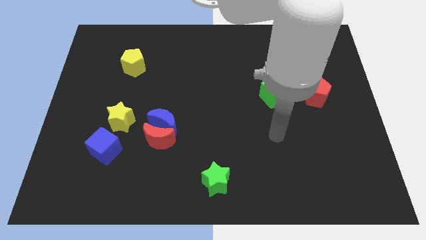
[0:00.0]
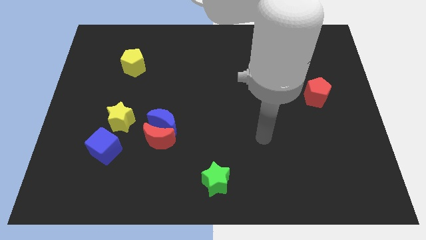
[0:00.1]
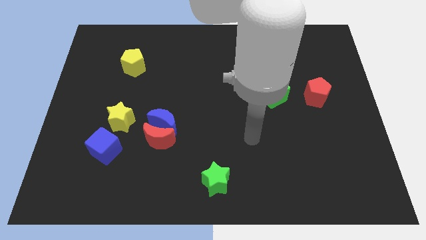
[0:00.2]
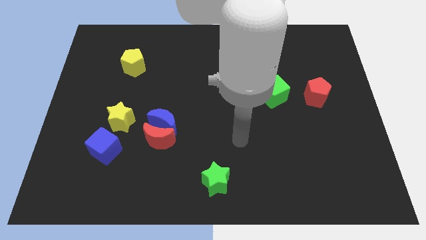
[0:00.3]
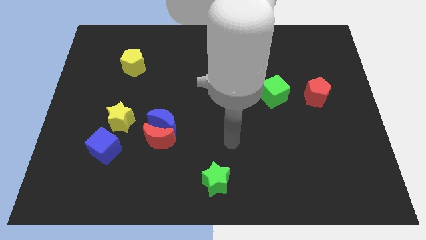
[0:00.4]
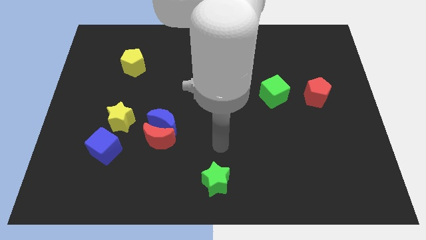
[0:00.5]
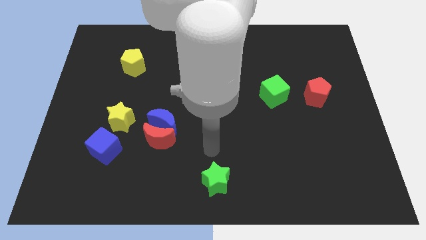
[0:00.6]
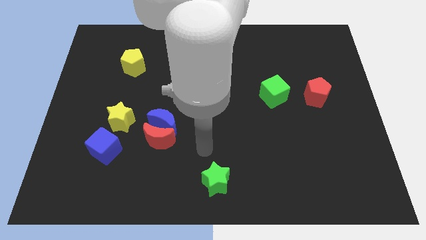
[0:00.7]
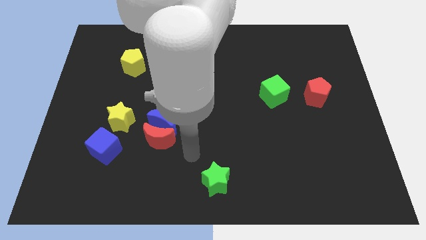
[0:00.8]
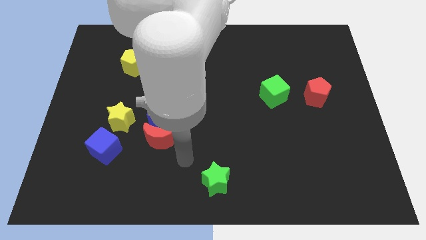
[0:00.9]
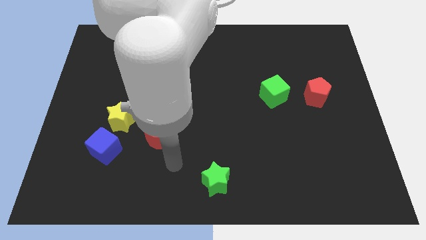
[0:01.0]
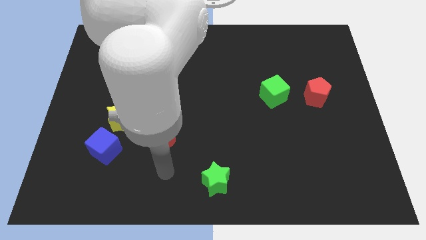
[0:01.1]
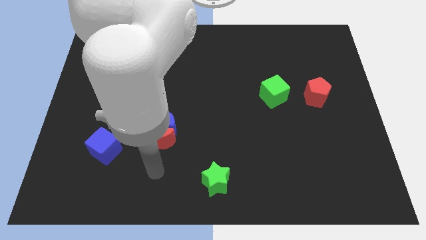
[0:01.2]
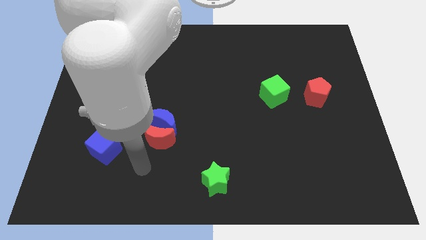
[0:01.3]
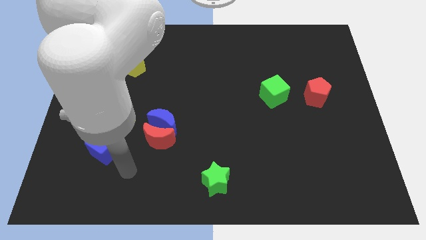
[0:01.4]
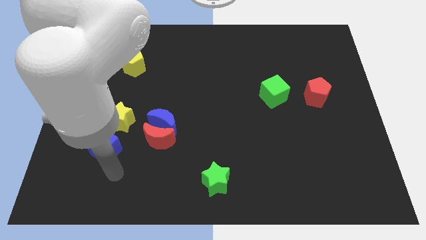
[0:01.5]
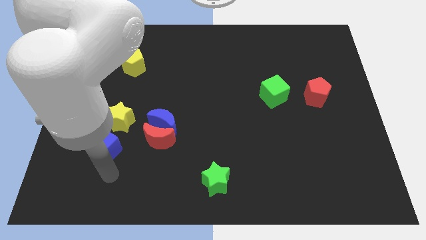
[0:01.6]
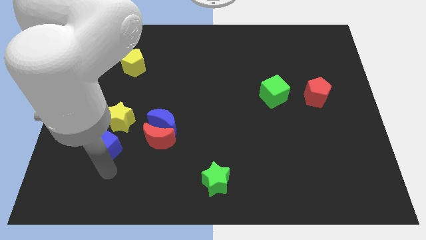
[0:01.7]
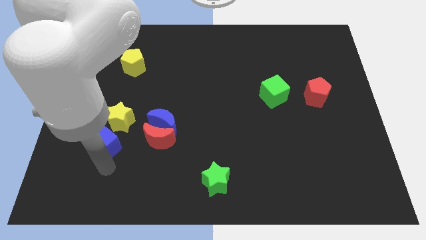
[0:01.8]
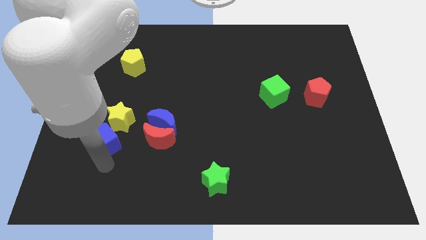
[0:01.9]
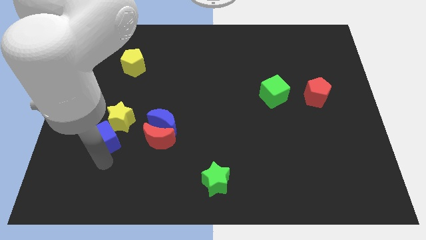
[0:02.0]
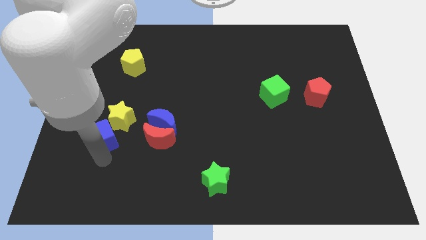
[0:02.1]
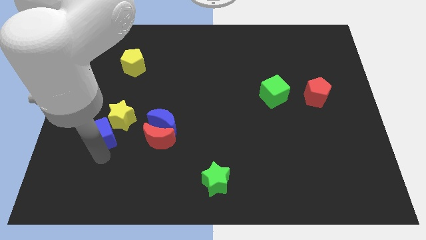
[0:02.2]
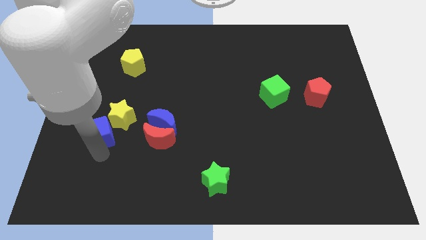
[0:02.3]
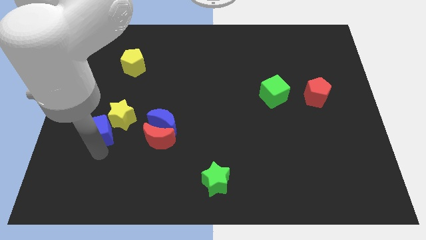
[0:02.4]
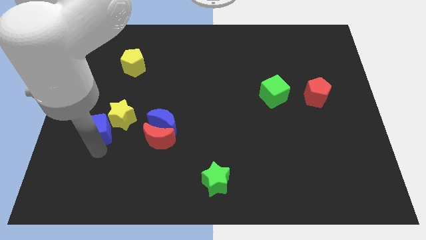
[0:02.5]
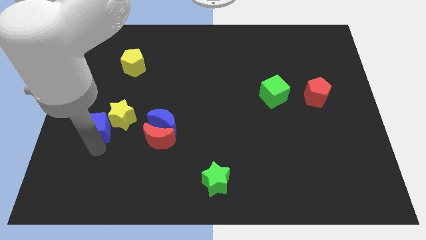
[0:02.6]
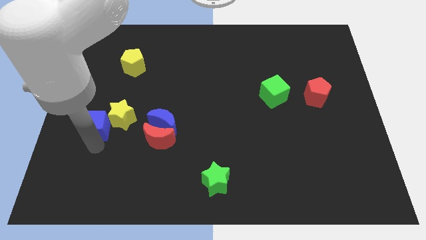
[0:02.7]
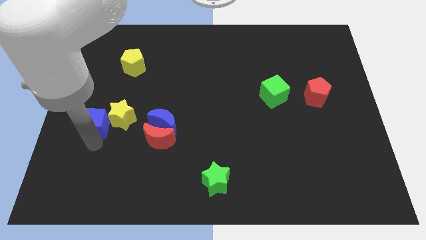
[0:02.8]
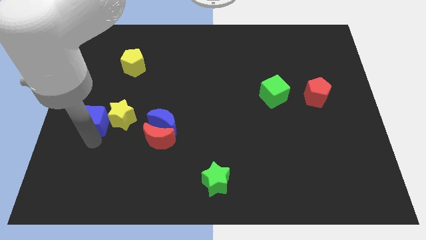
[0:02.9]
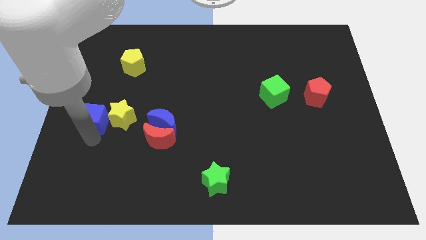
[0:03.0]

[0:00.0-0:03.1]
slide the blue cube a bit upwards

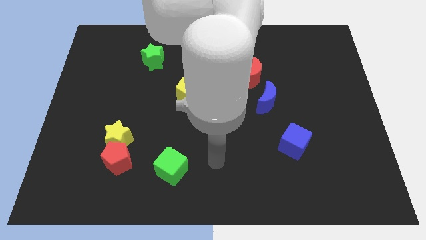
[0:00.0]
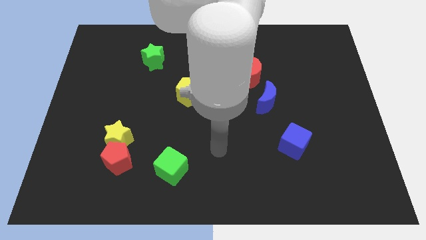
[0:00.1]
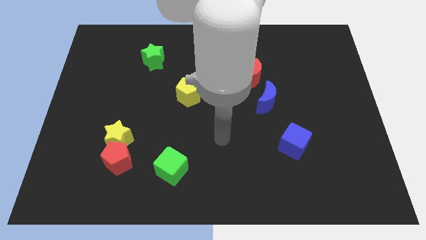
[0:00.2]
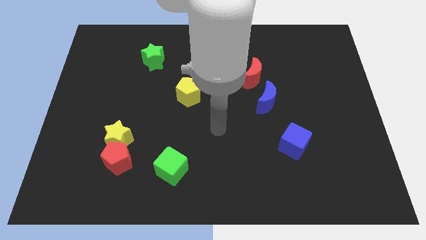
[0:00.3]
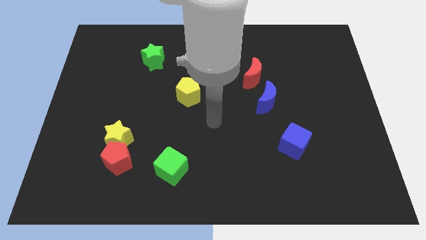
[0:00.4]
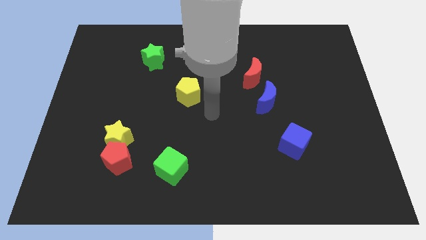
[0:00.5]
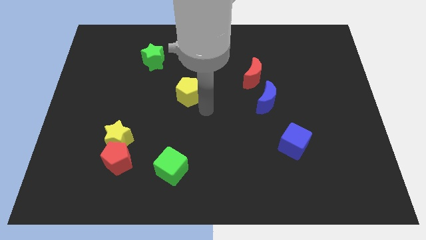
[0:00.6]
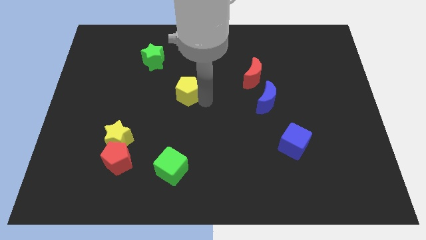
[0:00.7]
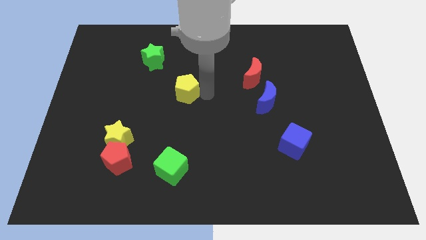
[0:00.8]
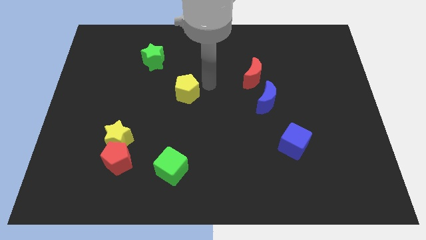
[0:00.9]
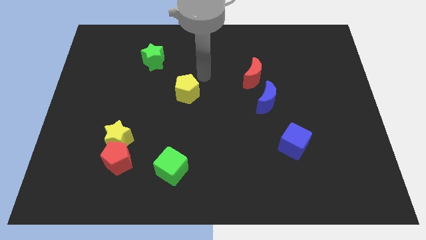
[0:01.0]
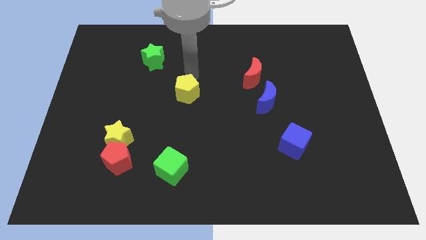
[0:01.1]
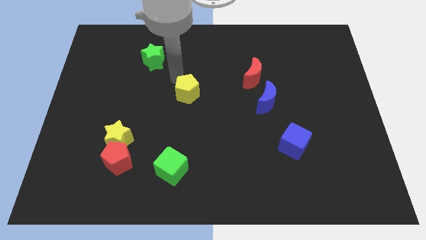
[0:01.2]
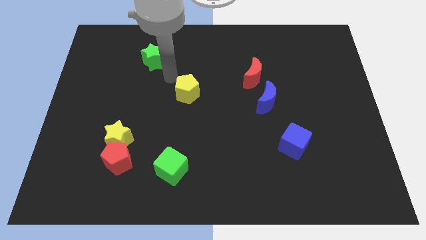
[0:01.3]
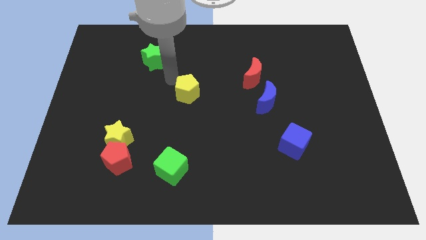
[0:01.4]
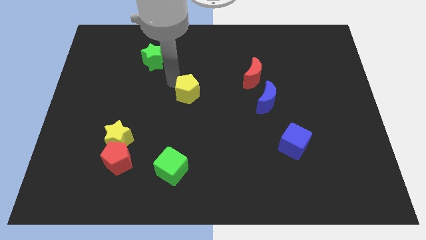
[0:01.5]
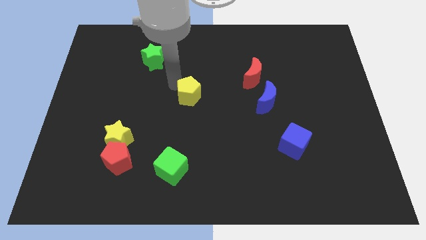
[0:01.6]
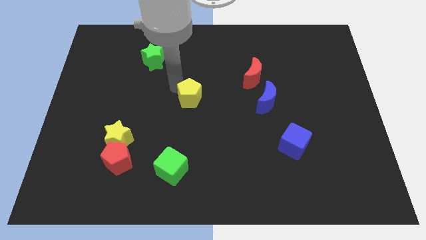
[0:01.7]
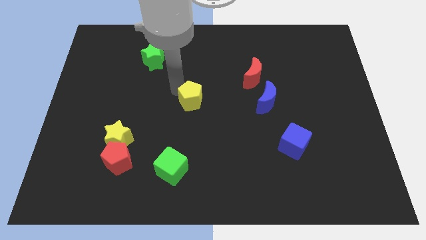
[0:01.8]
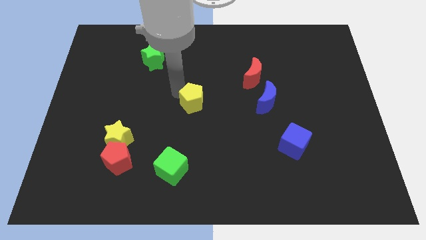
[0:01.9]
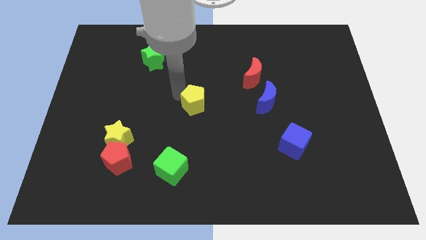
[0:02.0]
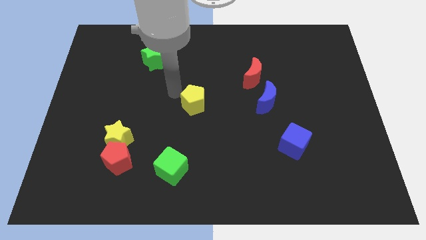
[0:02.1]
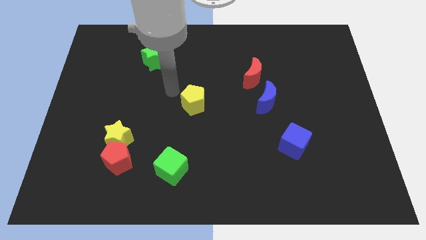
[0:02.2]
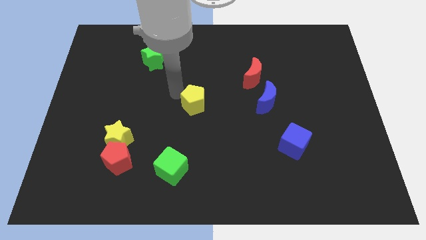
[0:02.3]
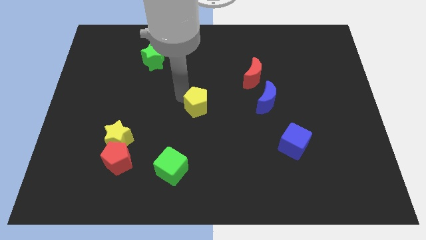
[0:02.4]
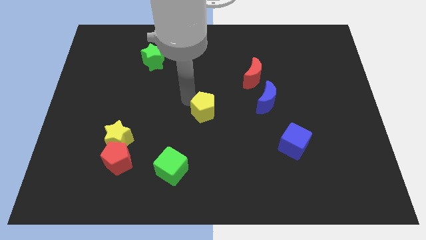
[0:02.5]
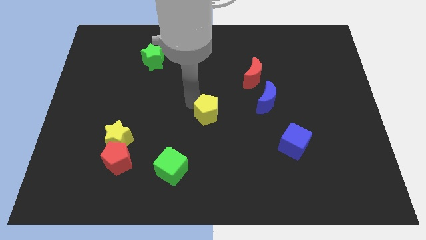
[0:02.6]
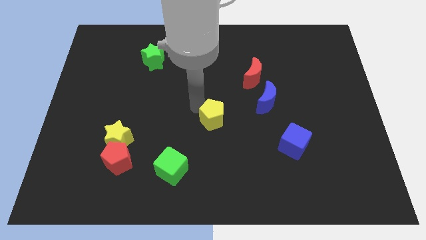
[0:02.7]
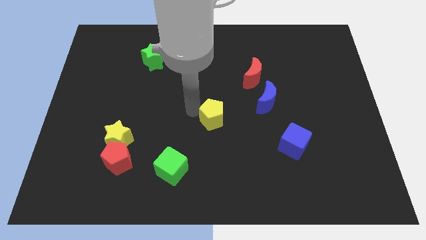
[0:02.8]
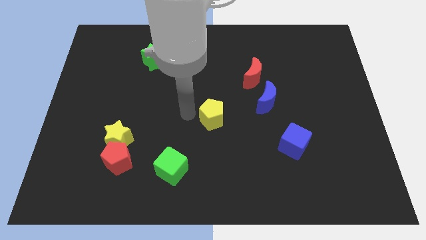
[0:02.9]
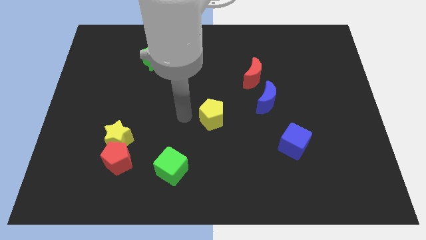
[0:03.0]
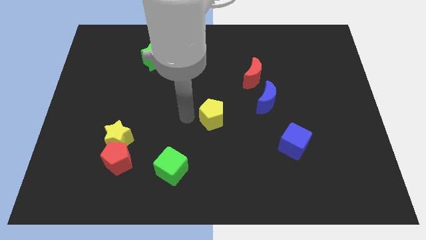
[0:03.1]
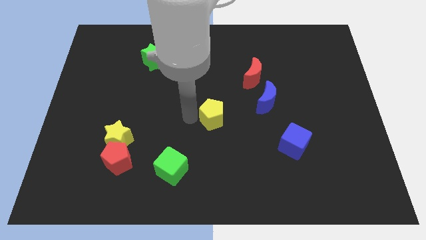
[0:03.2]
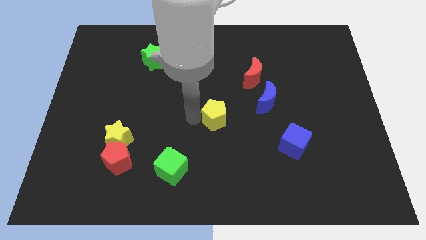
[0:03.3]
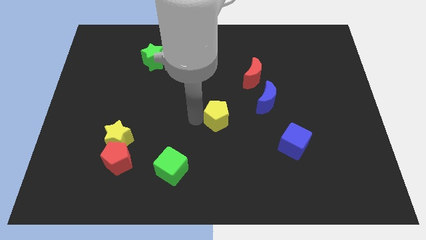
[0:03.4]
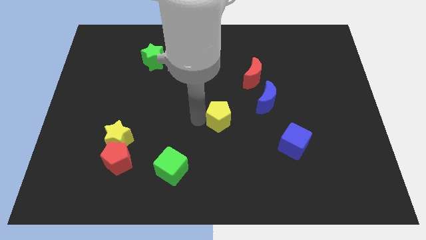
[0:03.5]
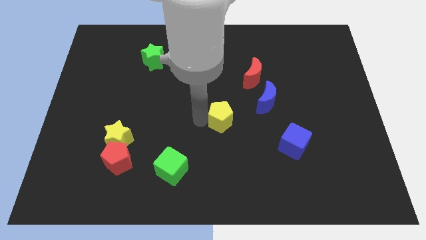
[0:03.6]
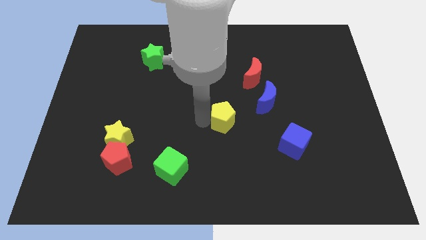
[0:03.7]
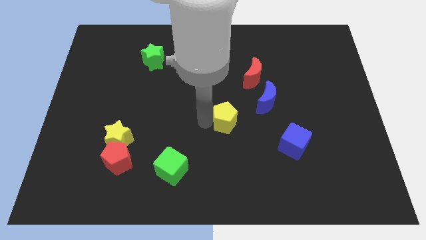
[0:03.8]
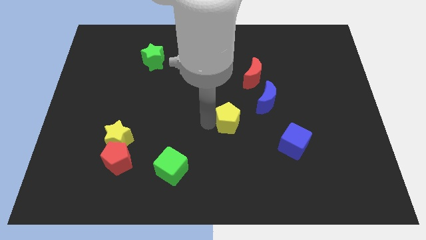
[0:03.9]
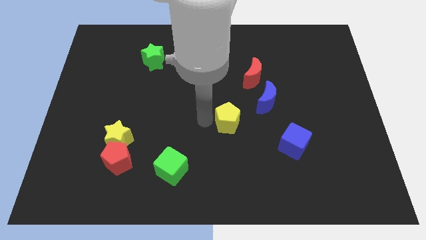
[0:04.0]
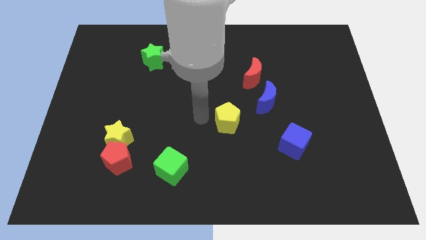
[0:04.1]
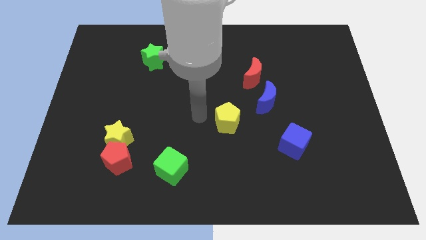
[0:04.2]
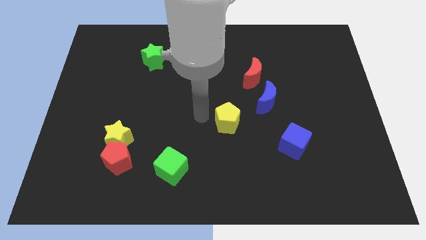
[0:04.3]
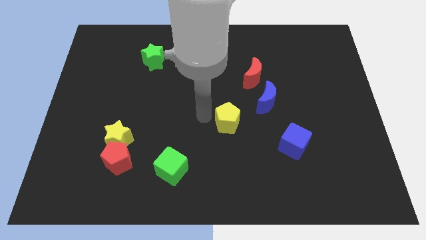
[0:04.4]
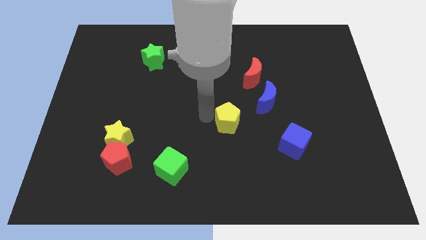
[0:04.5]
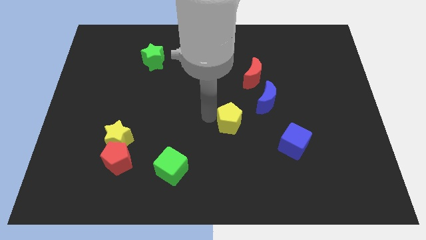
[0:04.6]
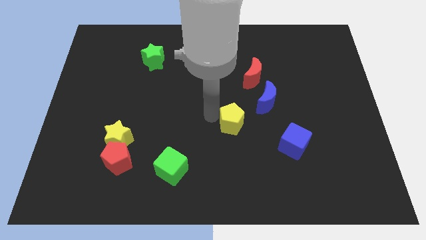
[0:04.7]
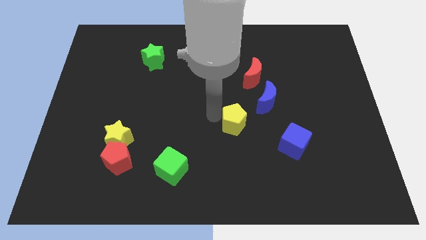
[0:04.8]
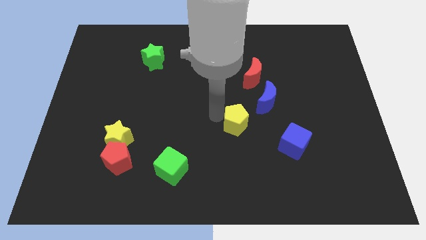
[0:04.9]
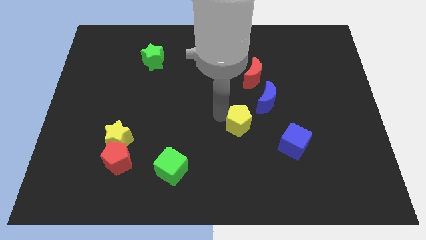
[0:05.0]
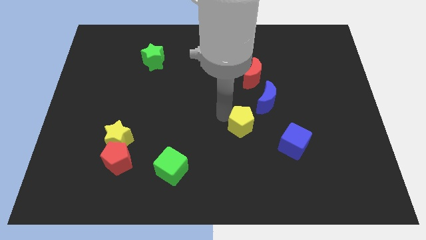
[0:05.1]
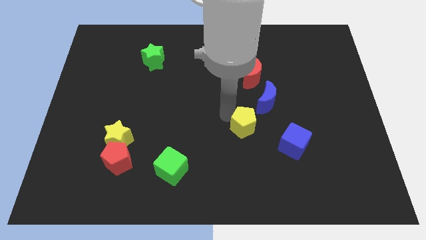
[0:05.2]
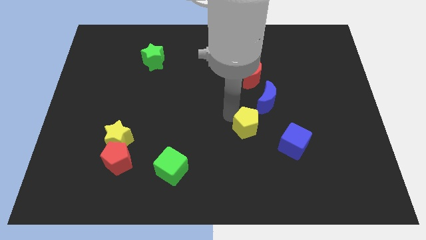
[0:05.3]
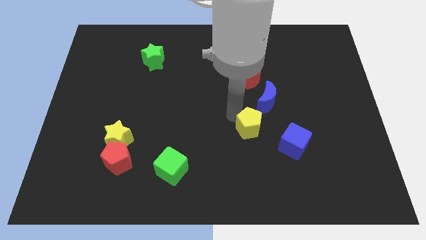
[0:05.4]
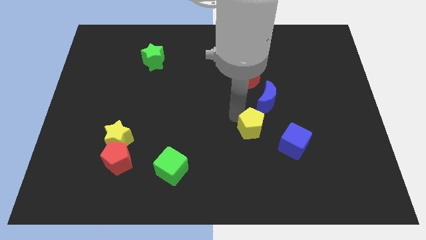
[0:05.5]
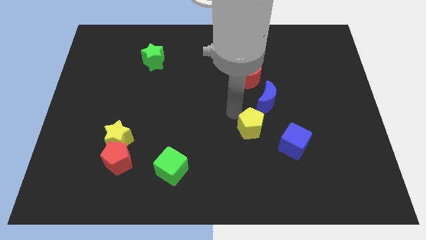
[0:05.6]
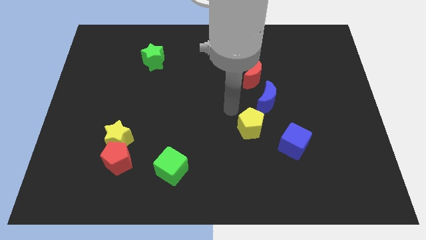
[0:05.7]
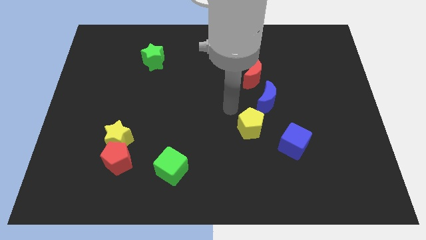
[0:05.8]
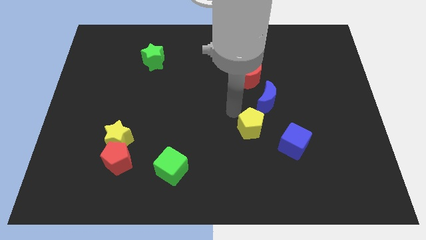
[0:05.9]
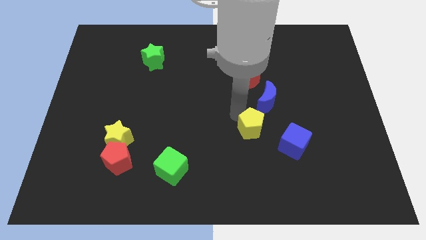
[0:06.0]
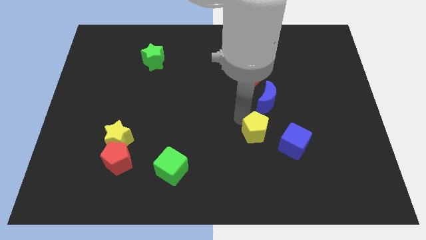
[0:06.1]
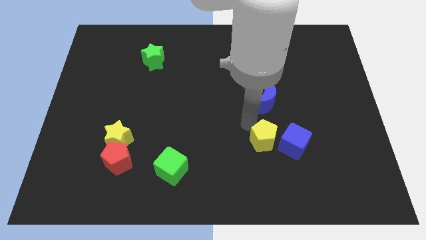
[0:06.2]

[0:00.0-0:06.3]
move the yellow pentagon downwards and then to the right
